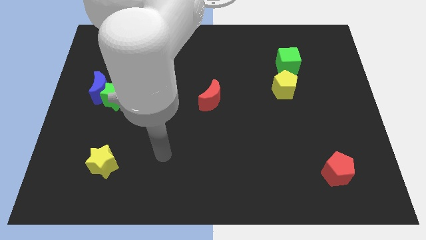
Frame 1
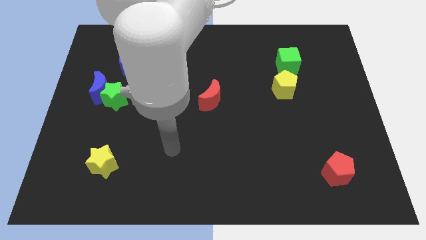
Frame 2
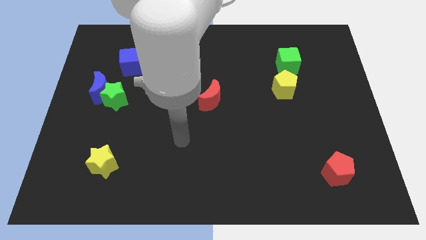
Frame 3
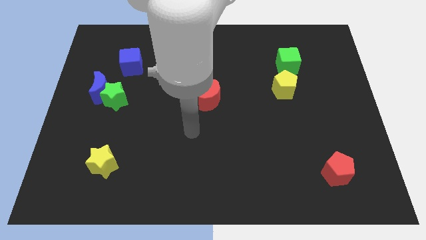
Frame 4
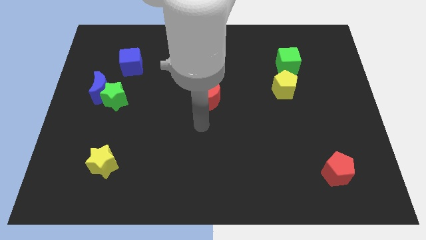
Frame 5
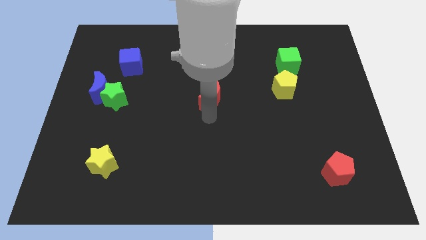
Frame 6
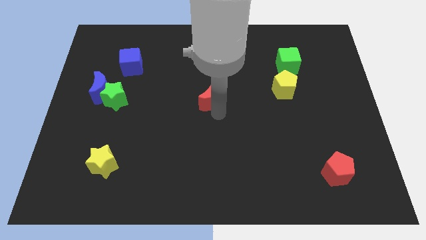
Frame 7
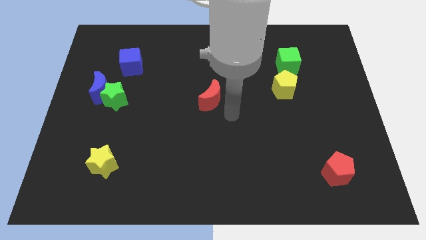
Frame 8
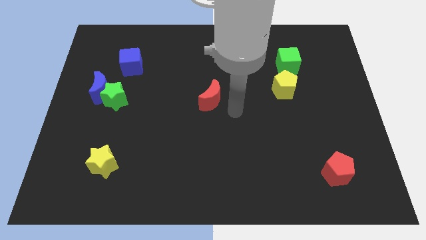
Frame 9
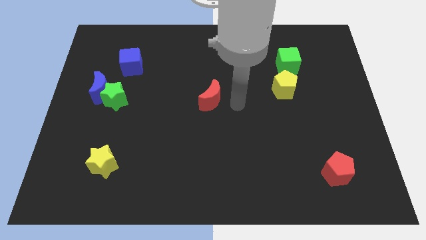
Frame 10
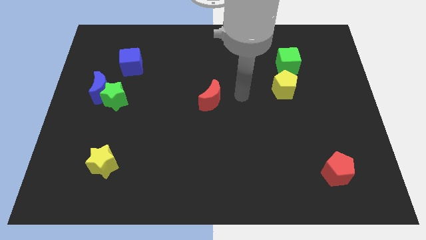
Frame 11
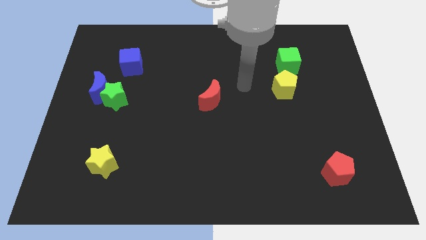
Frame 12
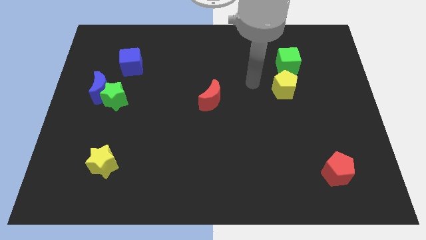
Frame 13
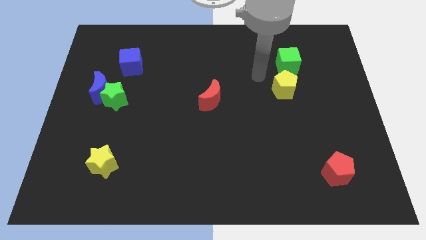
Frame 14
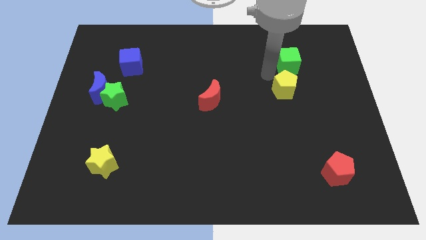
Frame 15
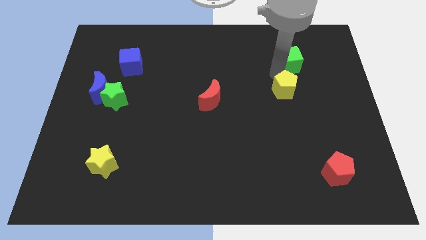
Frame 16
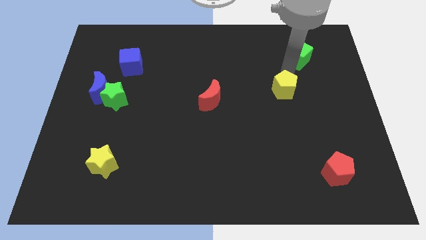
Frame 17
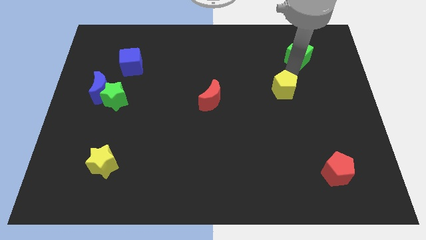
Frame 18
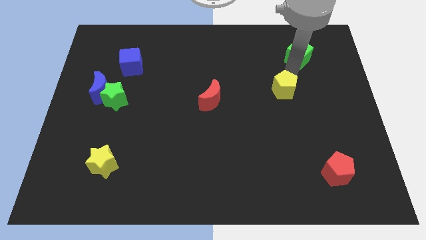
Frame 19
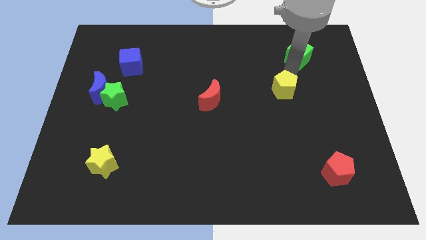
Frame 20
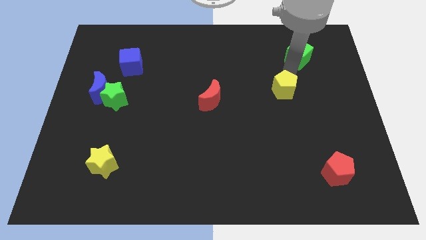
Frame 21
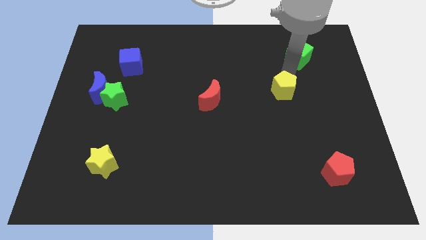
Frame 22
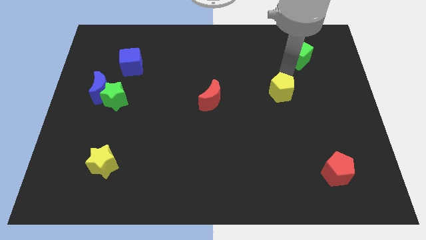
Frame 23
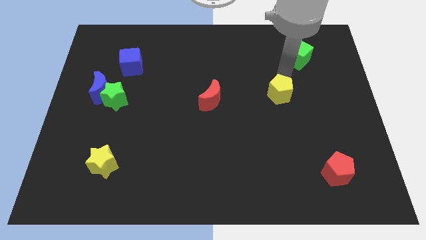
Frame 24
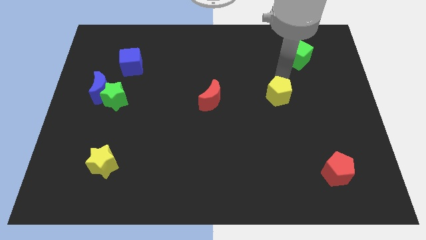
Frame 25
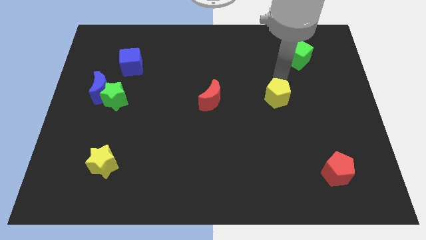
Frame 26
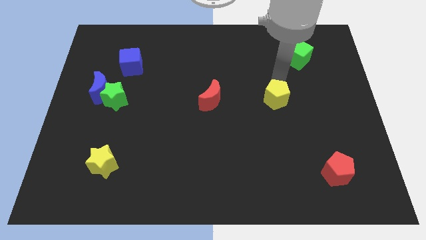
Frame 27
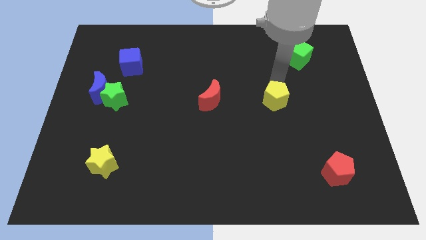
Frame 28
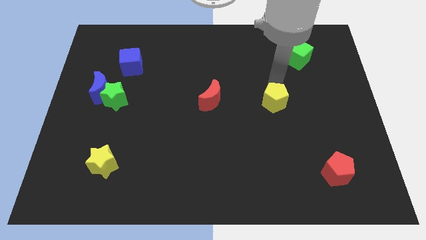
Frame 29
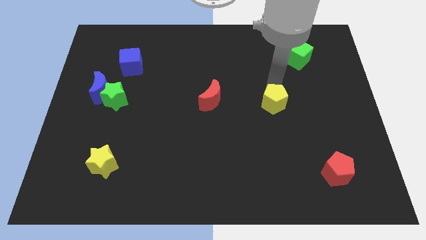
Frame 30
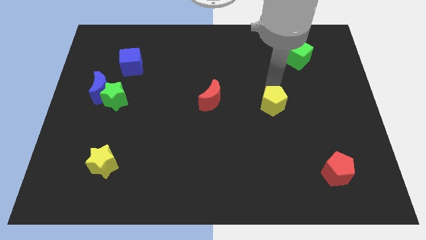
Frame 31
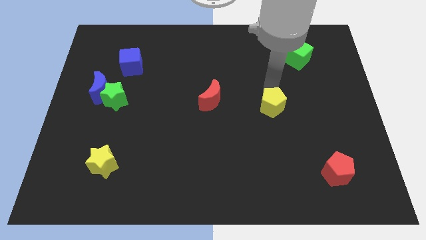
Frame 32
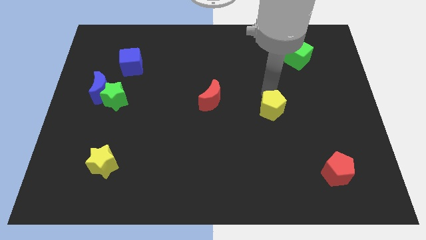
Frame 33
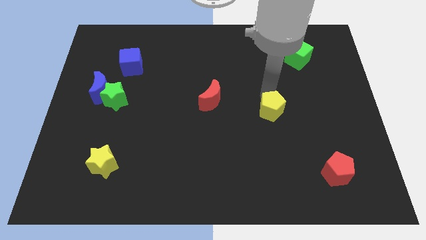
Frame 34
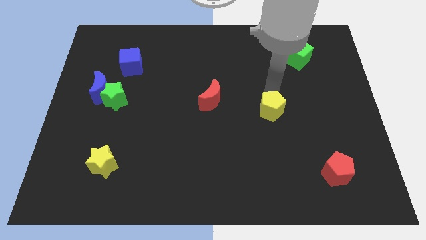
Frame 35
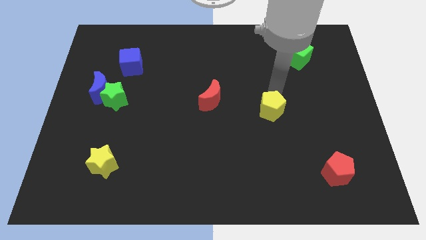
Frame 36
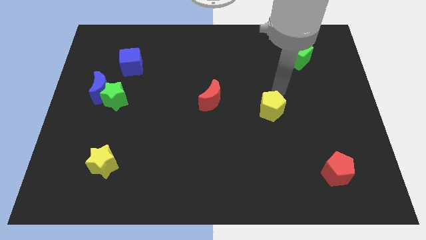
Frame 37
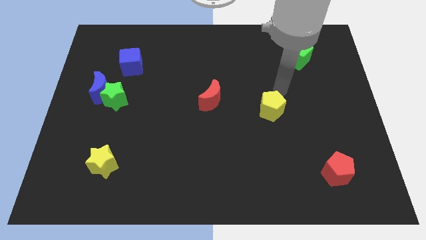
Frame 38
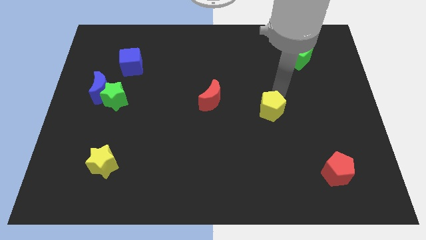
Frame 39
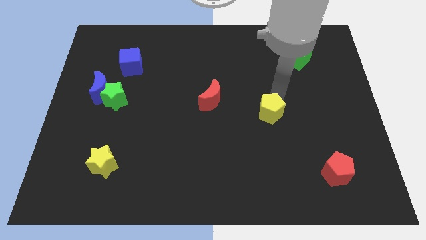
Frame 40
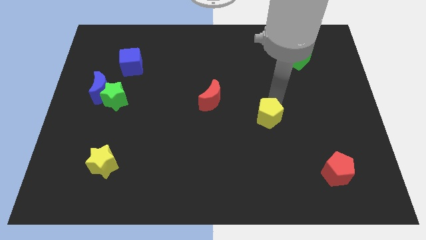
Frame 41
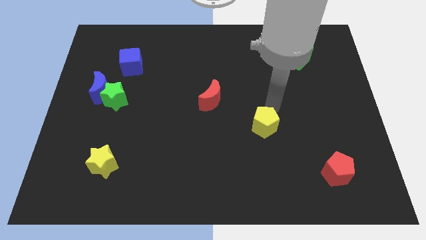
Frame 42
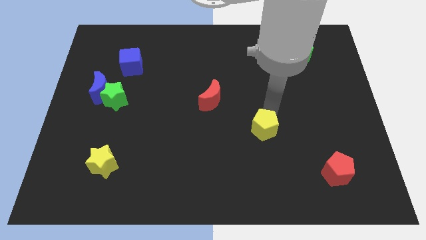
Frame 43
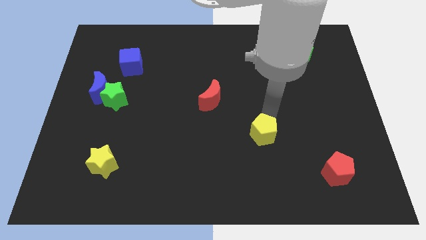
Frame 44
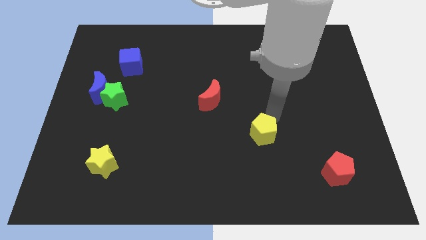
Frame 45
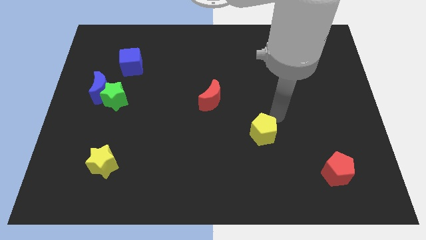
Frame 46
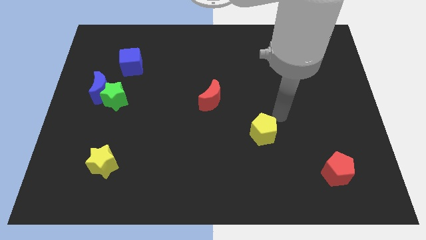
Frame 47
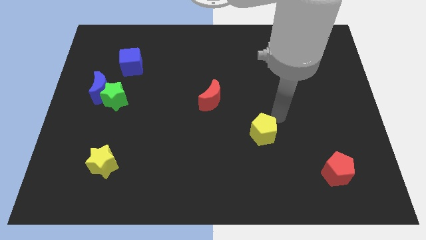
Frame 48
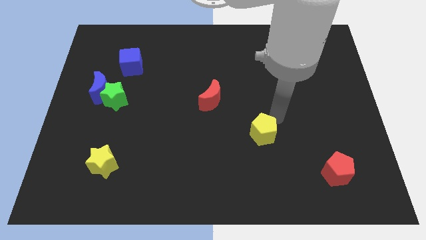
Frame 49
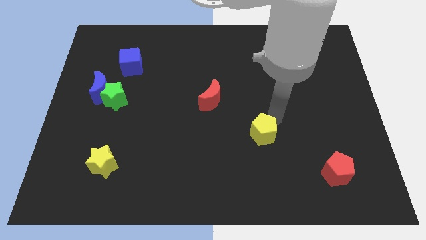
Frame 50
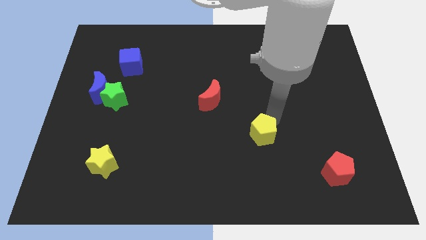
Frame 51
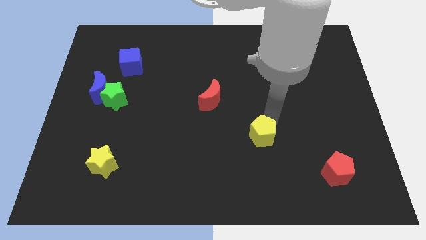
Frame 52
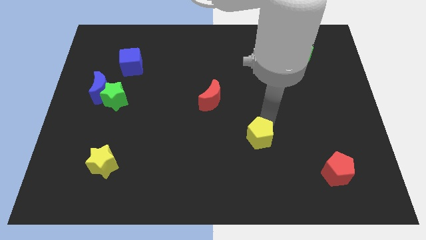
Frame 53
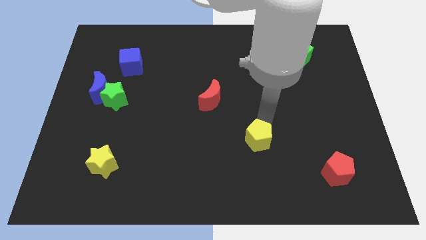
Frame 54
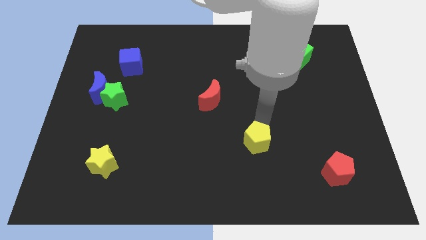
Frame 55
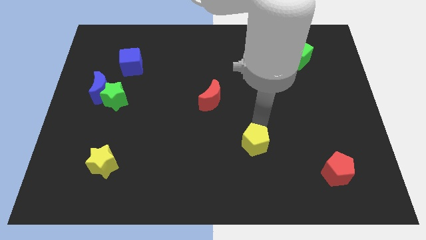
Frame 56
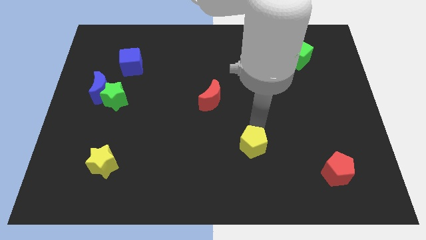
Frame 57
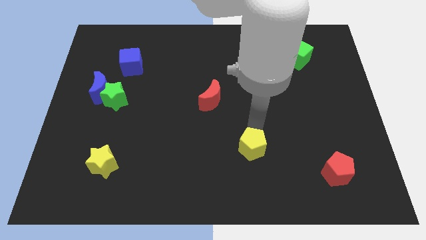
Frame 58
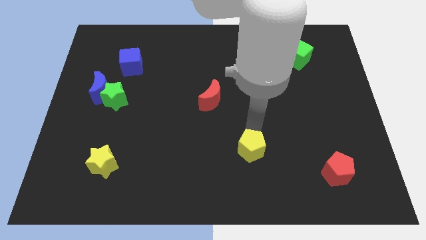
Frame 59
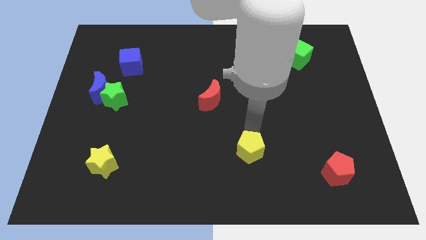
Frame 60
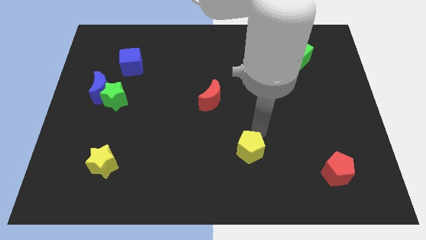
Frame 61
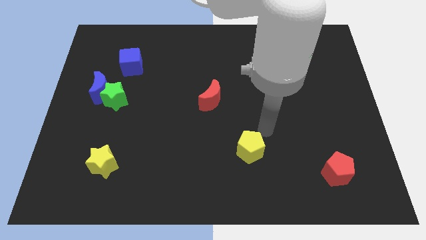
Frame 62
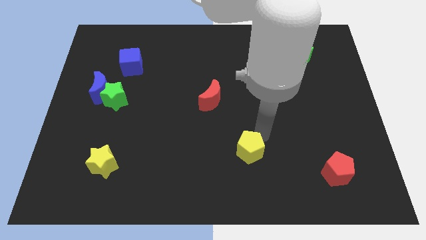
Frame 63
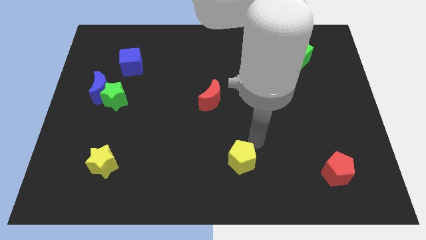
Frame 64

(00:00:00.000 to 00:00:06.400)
slide the yellow pentagon to the bottom
